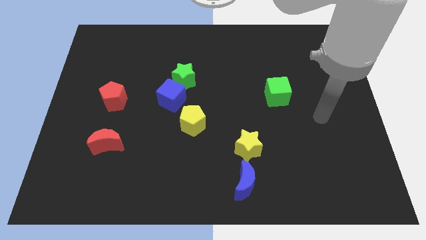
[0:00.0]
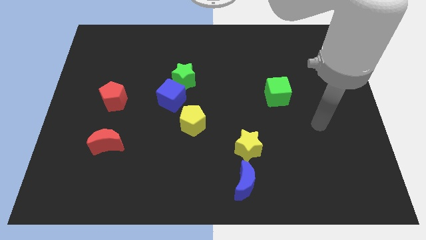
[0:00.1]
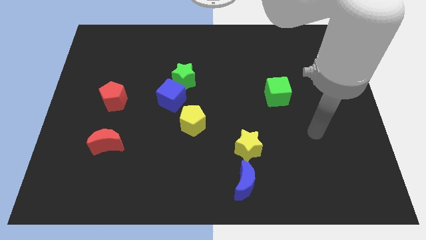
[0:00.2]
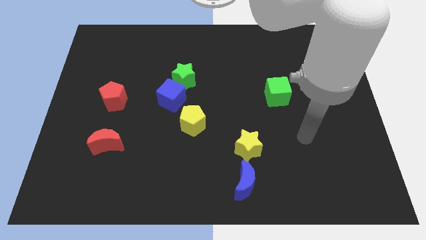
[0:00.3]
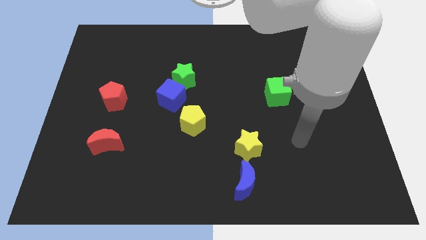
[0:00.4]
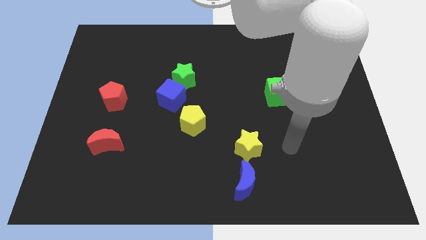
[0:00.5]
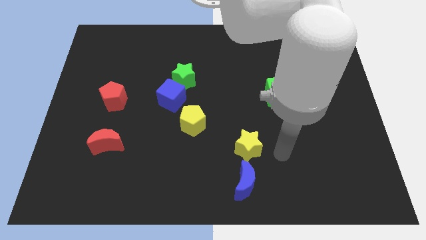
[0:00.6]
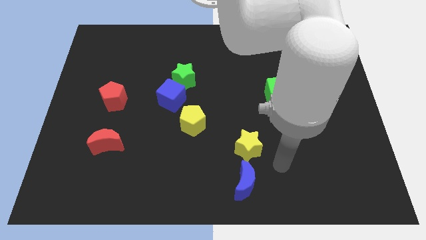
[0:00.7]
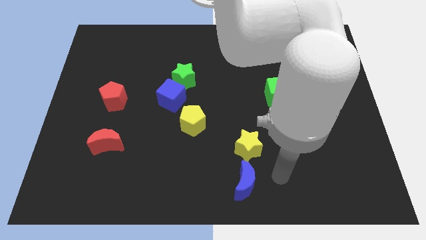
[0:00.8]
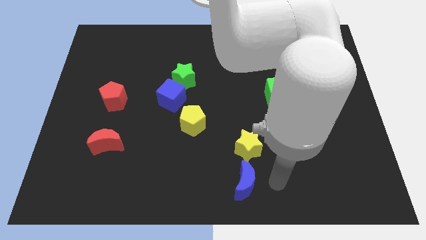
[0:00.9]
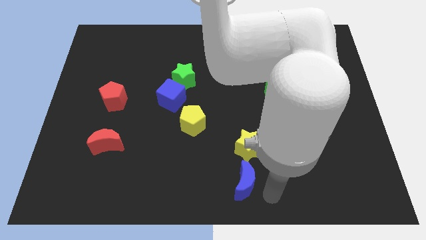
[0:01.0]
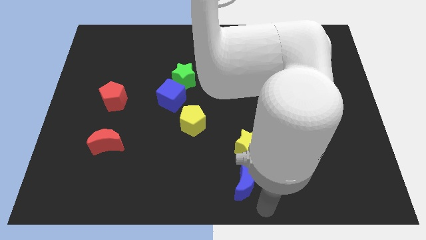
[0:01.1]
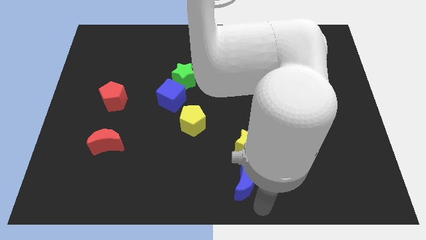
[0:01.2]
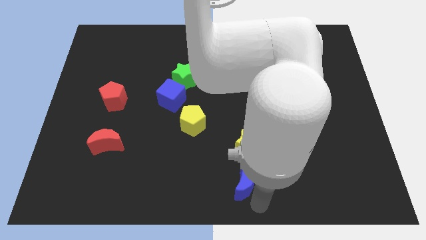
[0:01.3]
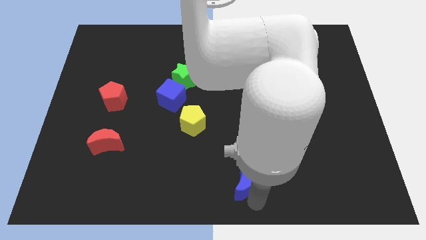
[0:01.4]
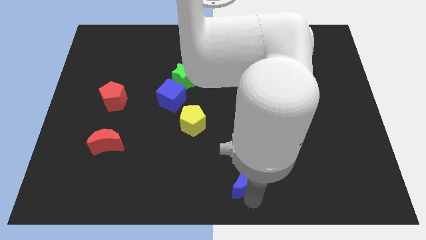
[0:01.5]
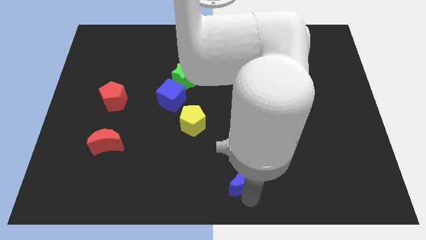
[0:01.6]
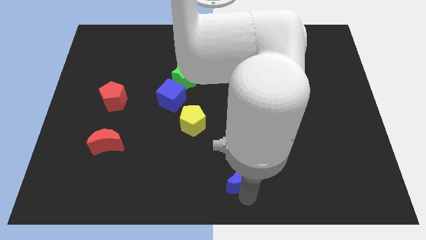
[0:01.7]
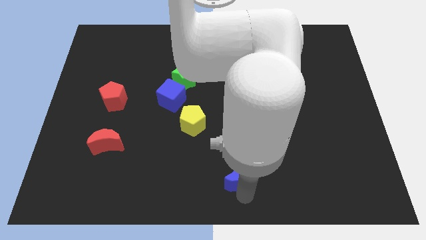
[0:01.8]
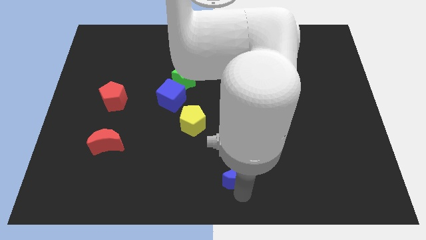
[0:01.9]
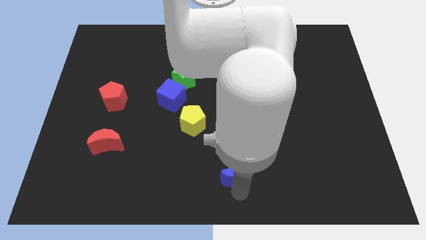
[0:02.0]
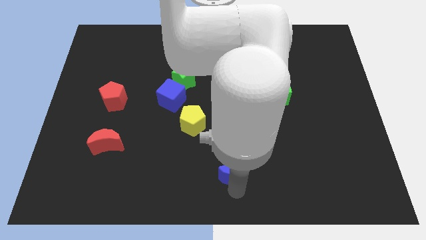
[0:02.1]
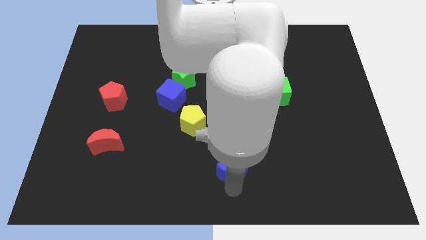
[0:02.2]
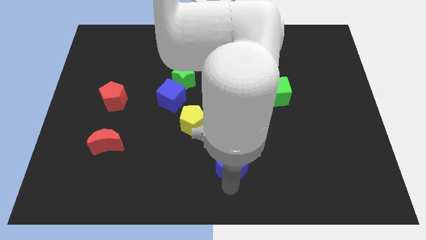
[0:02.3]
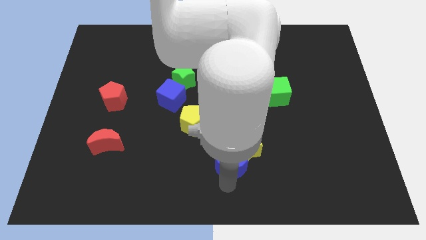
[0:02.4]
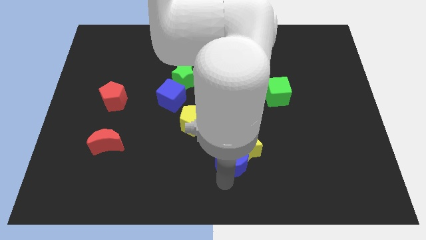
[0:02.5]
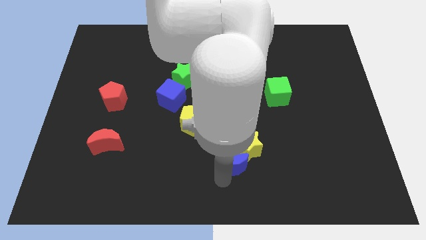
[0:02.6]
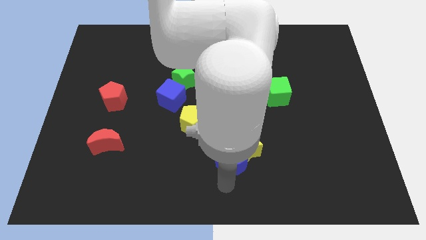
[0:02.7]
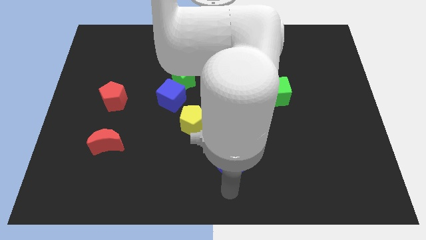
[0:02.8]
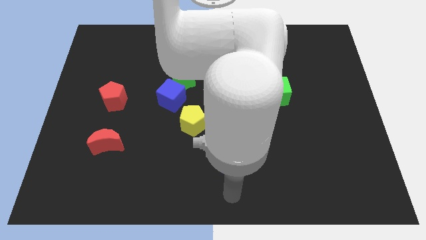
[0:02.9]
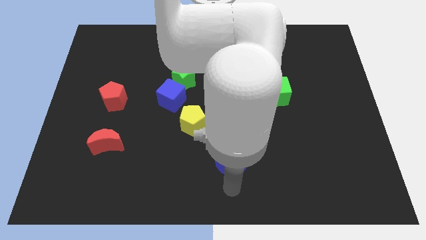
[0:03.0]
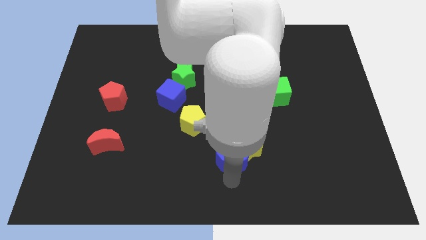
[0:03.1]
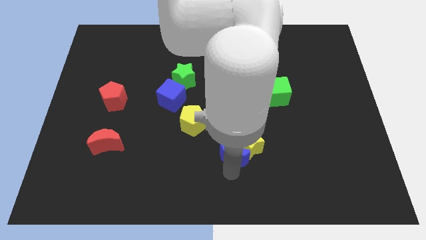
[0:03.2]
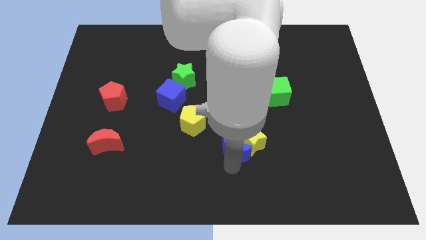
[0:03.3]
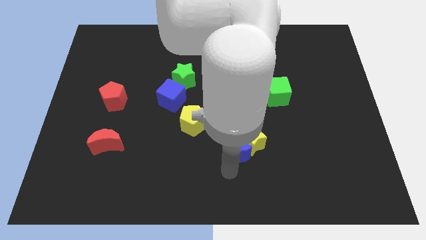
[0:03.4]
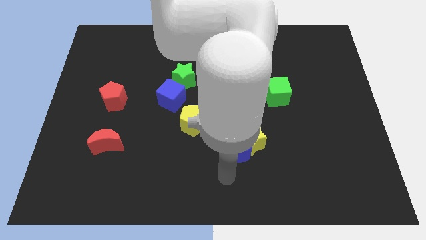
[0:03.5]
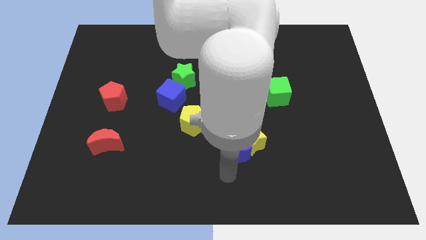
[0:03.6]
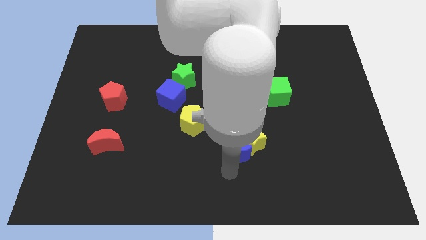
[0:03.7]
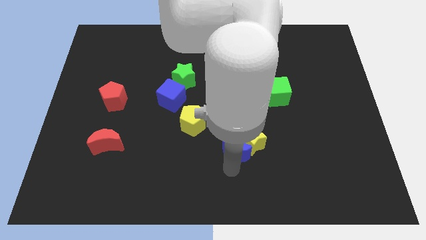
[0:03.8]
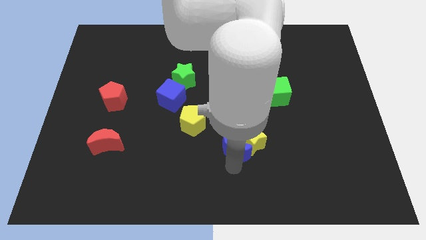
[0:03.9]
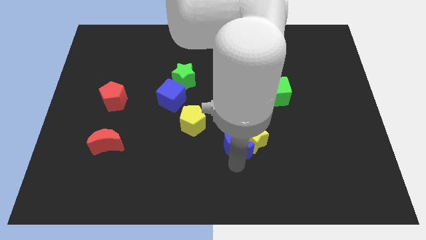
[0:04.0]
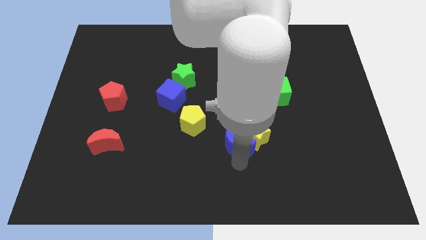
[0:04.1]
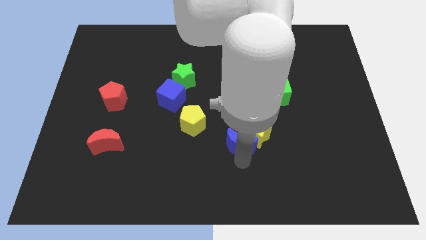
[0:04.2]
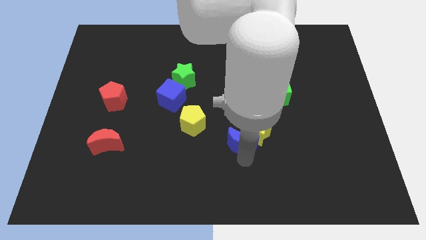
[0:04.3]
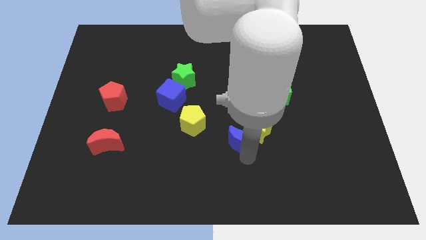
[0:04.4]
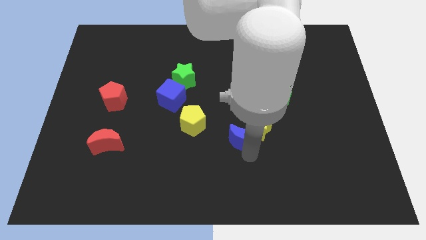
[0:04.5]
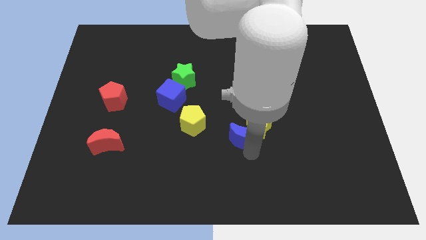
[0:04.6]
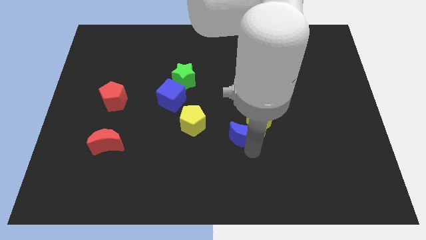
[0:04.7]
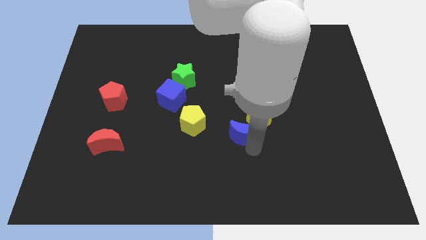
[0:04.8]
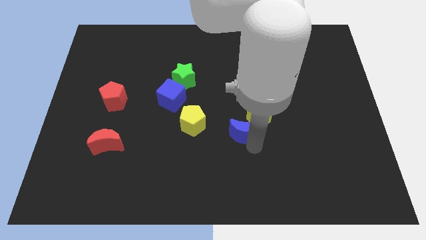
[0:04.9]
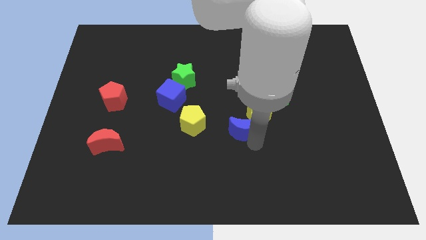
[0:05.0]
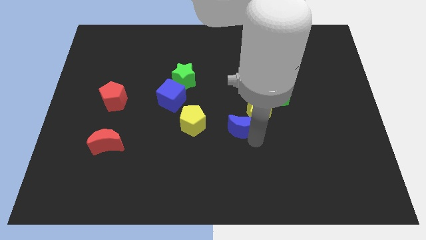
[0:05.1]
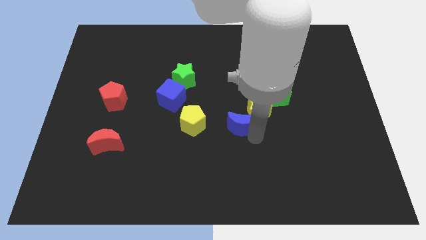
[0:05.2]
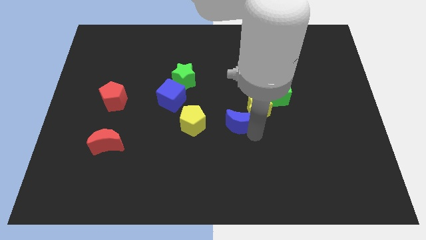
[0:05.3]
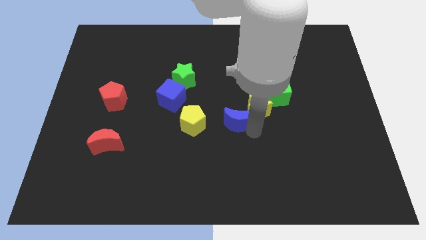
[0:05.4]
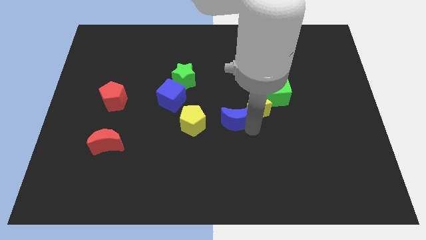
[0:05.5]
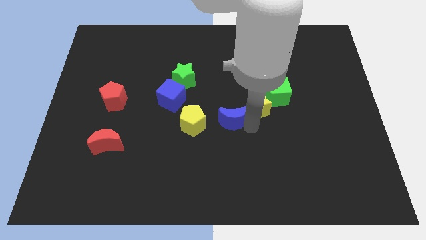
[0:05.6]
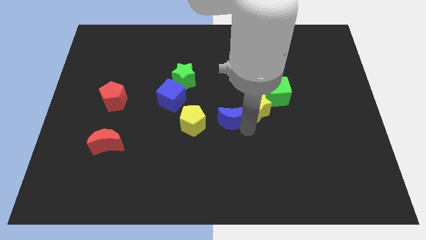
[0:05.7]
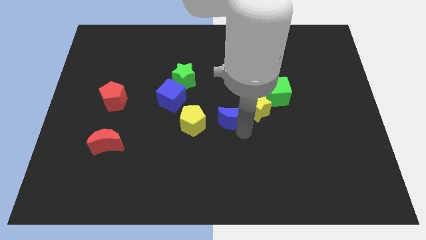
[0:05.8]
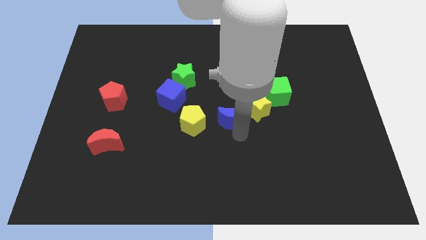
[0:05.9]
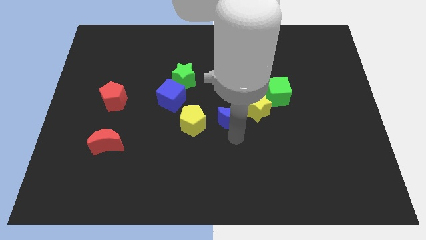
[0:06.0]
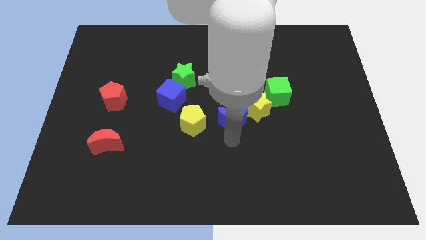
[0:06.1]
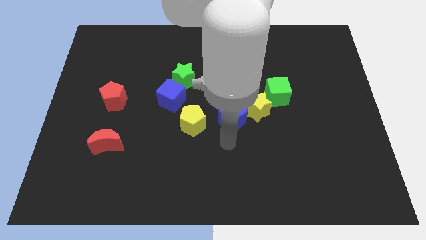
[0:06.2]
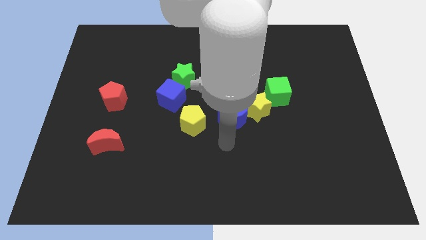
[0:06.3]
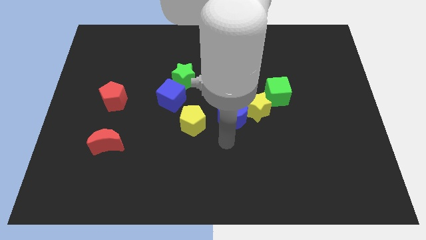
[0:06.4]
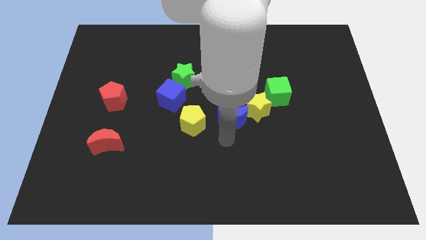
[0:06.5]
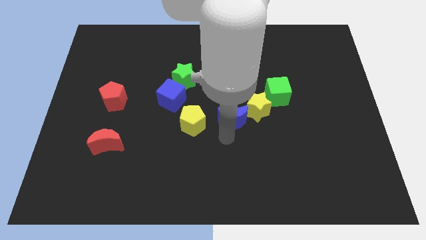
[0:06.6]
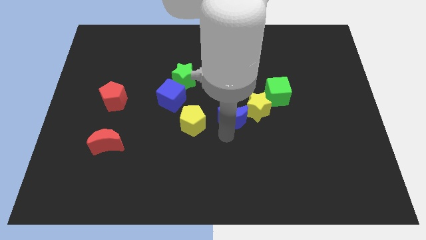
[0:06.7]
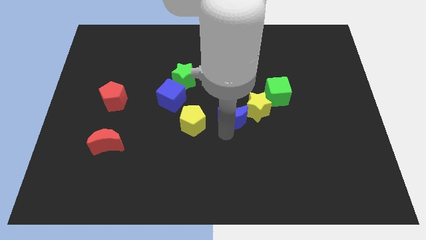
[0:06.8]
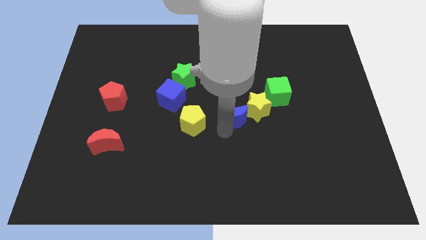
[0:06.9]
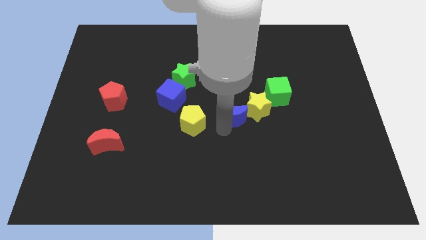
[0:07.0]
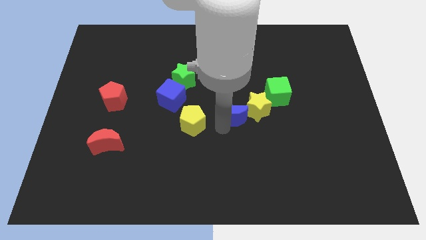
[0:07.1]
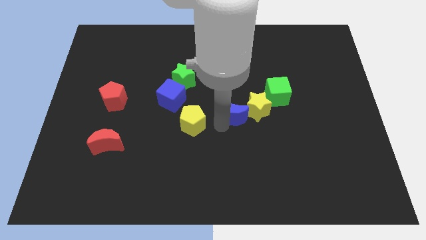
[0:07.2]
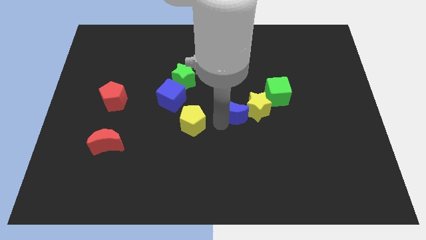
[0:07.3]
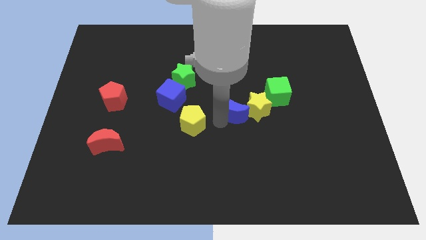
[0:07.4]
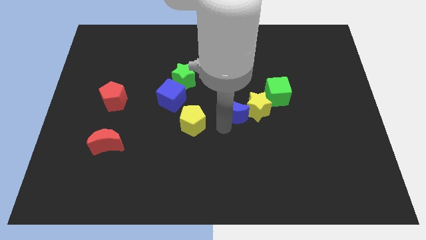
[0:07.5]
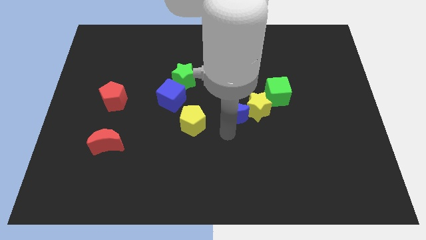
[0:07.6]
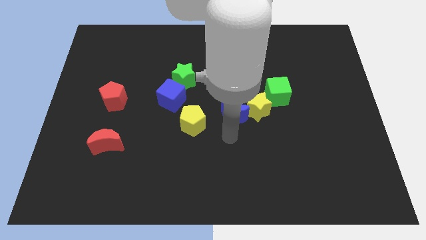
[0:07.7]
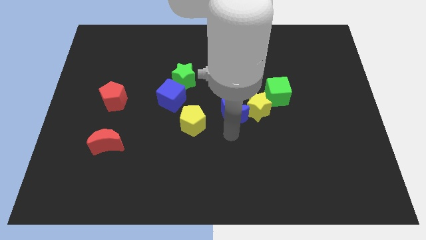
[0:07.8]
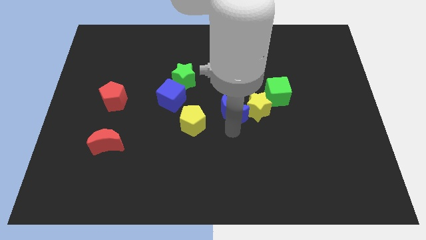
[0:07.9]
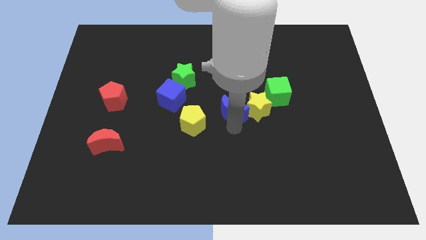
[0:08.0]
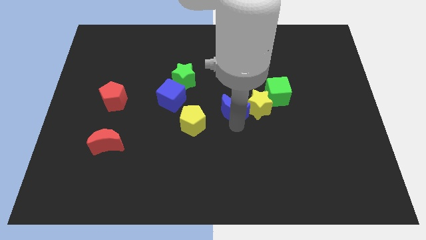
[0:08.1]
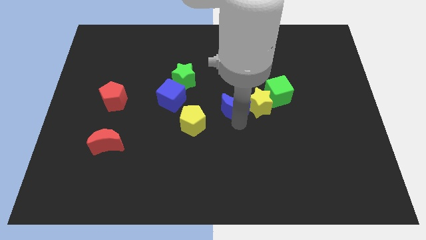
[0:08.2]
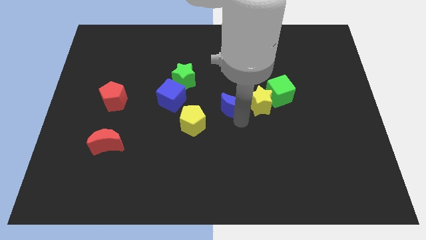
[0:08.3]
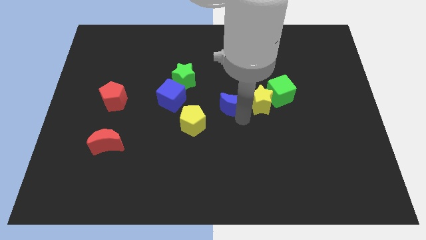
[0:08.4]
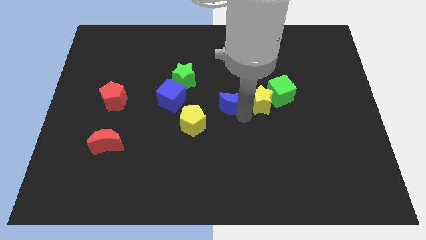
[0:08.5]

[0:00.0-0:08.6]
slide the blue moon upwards
